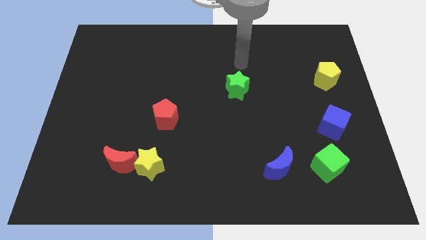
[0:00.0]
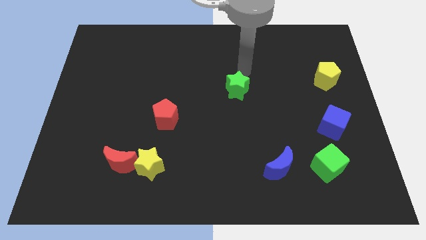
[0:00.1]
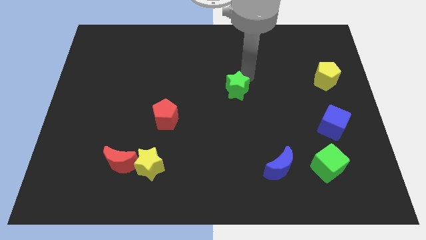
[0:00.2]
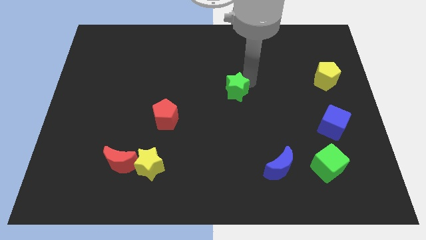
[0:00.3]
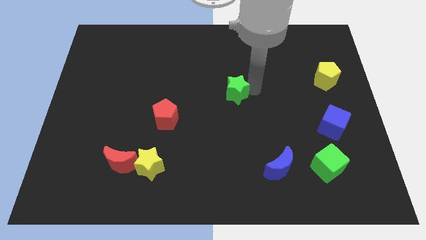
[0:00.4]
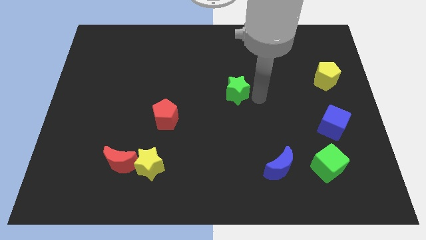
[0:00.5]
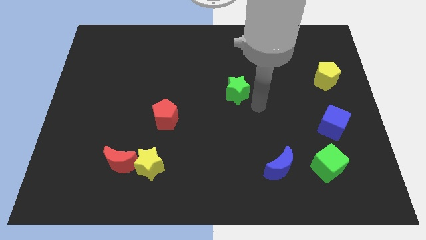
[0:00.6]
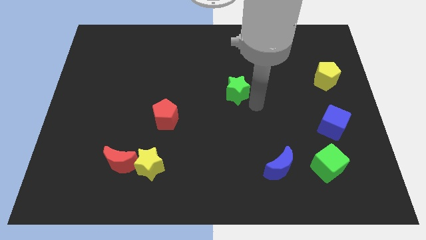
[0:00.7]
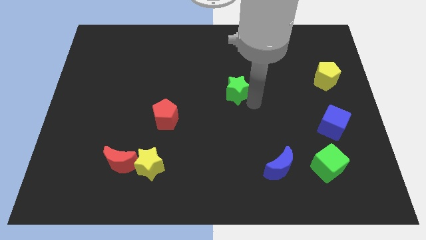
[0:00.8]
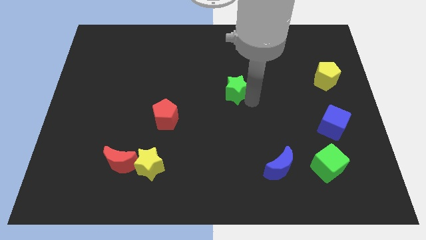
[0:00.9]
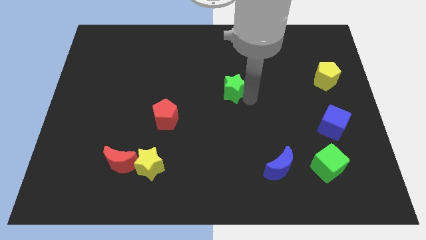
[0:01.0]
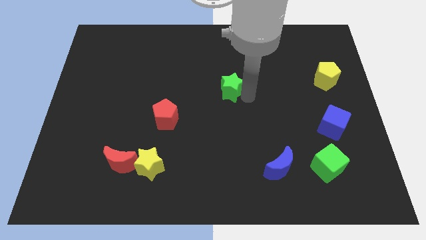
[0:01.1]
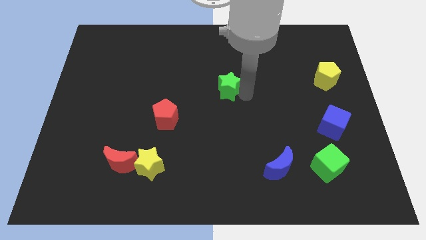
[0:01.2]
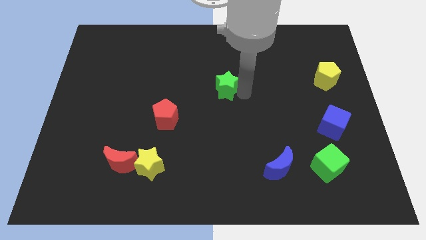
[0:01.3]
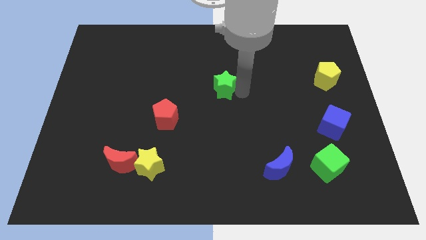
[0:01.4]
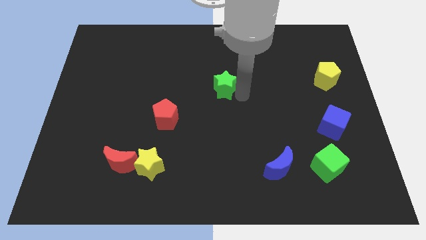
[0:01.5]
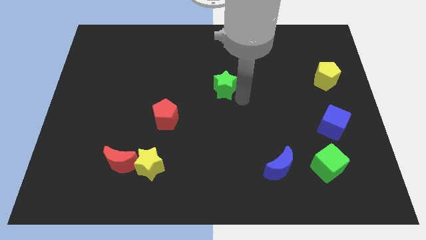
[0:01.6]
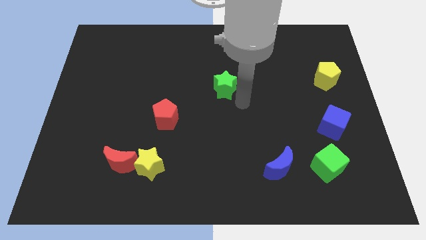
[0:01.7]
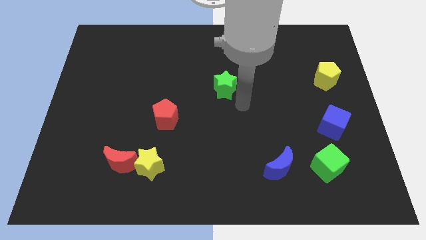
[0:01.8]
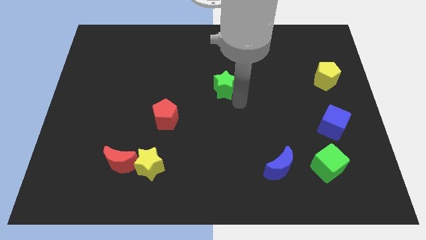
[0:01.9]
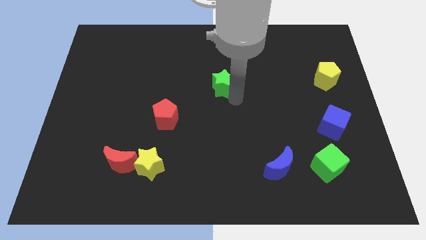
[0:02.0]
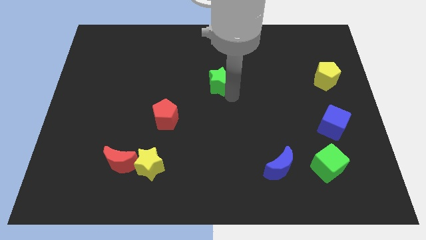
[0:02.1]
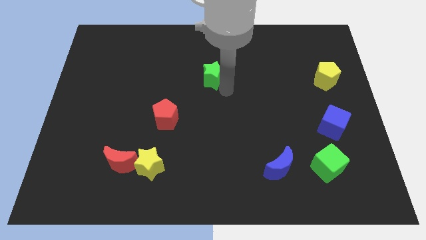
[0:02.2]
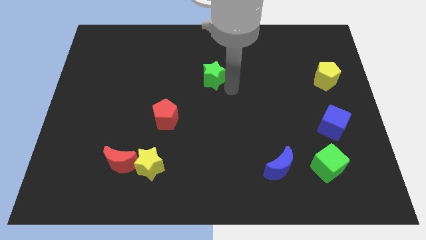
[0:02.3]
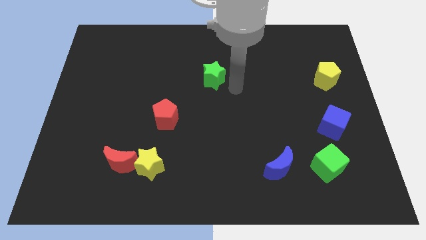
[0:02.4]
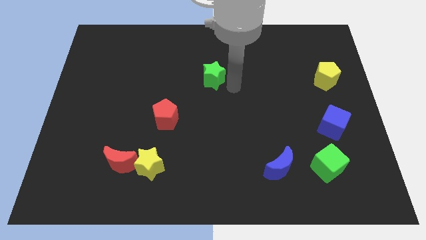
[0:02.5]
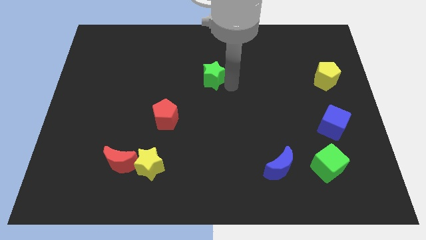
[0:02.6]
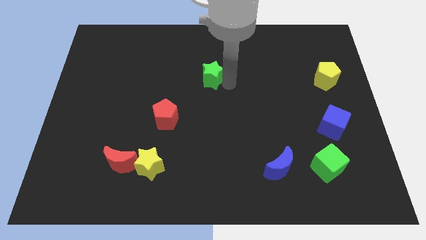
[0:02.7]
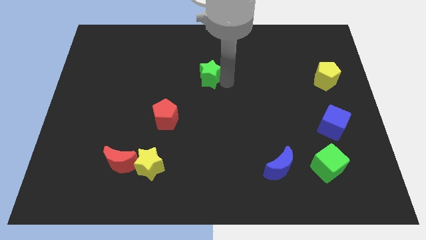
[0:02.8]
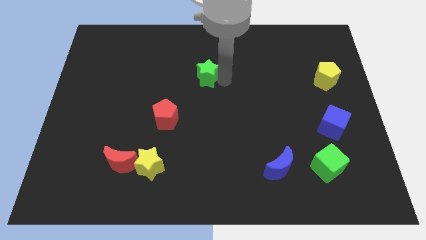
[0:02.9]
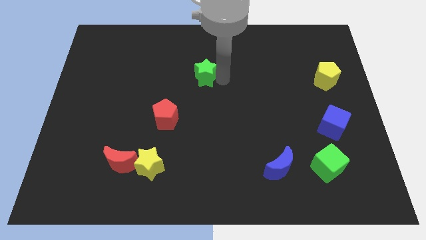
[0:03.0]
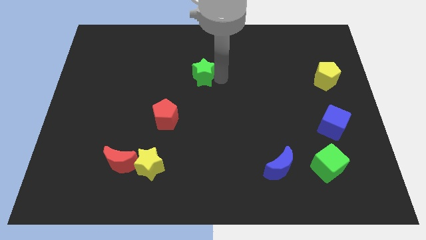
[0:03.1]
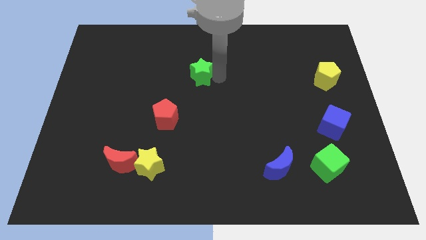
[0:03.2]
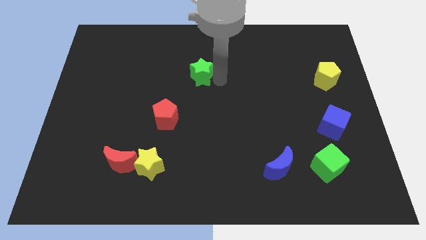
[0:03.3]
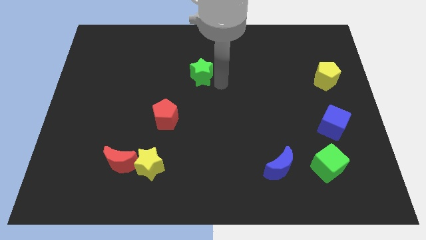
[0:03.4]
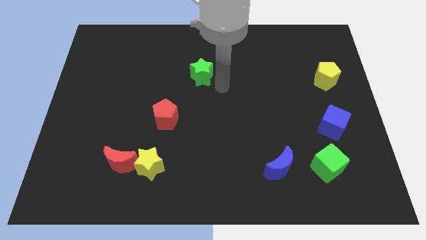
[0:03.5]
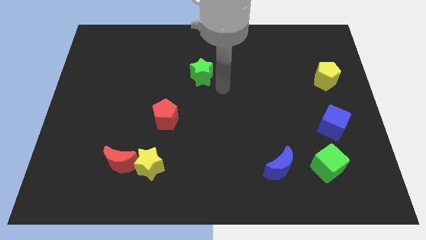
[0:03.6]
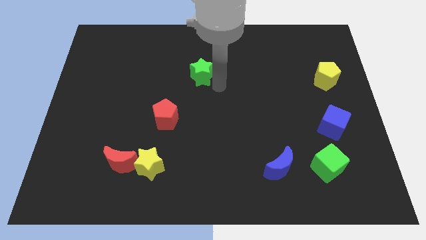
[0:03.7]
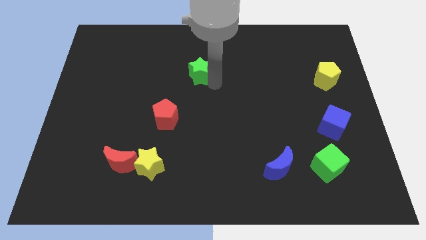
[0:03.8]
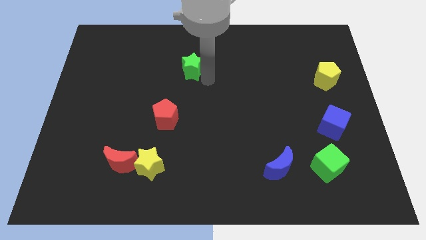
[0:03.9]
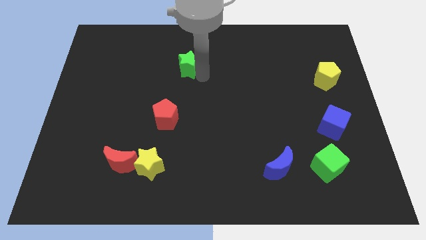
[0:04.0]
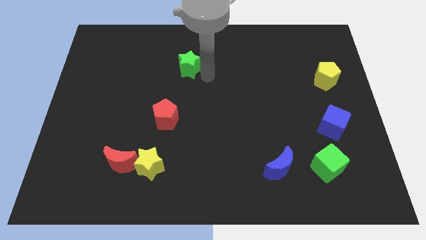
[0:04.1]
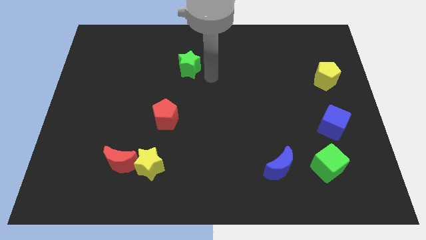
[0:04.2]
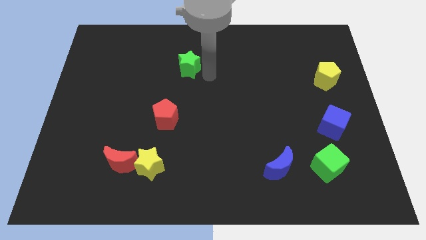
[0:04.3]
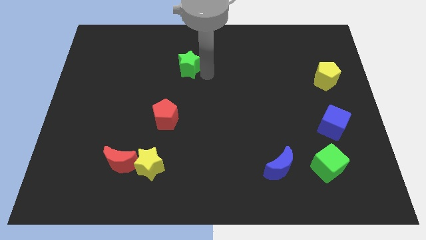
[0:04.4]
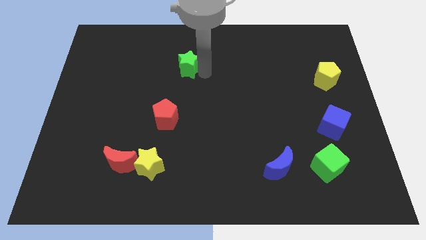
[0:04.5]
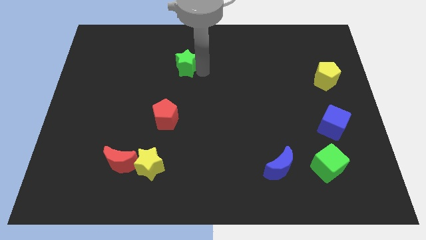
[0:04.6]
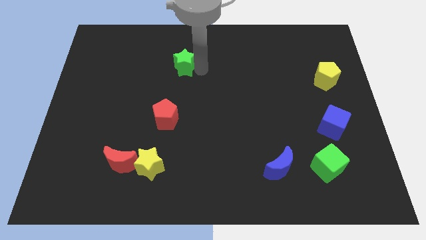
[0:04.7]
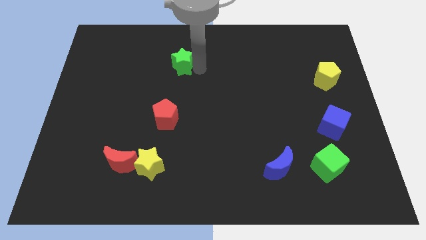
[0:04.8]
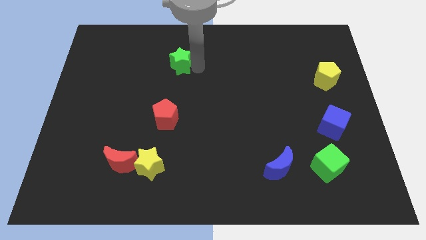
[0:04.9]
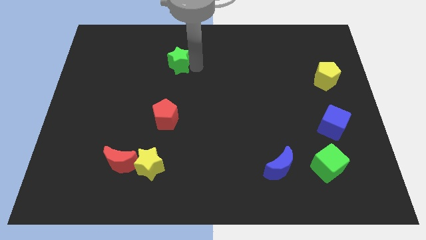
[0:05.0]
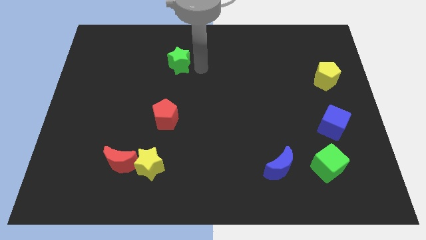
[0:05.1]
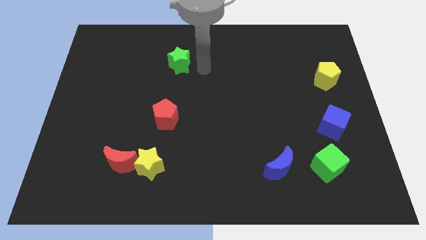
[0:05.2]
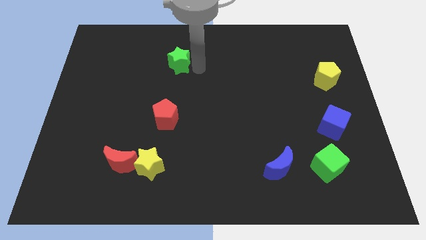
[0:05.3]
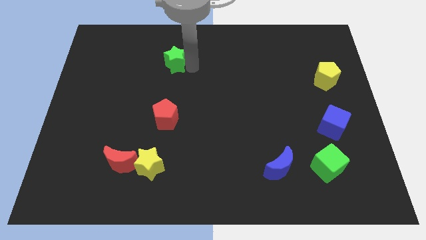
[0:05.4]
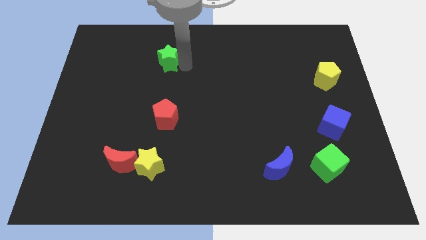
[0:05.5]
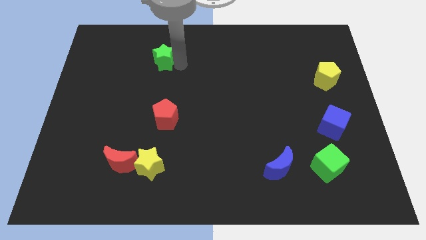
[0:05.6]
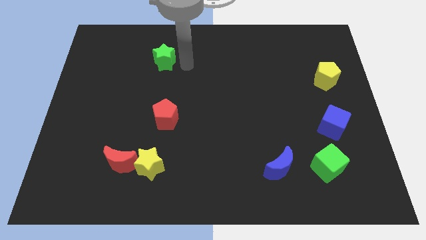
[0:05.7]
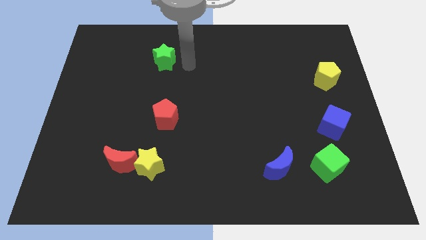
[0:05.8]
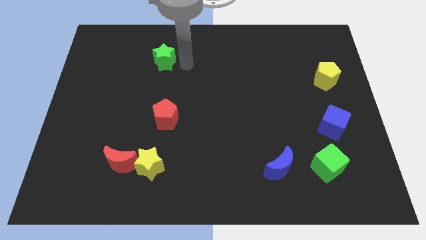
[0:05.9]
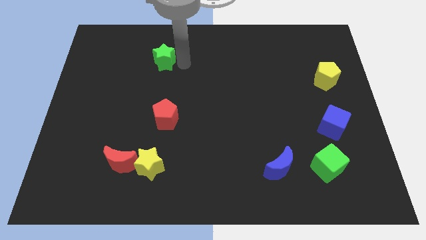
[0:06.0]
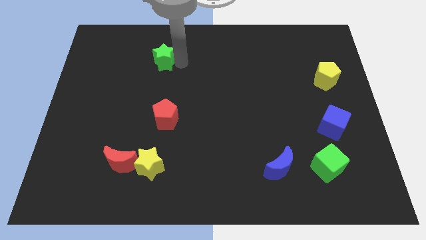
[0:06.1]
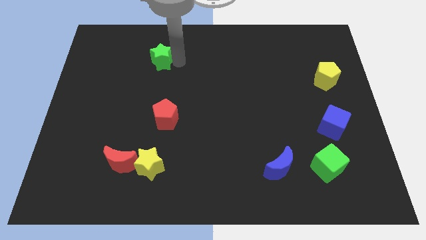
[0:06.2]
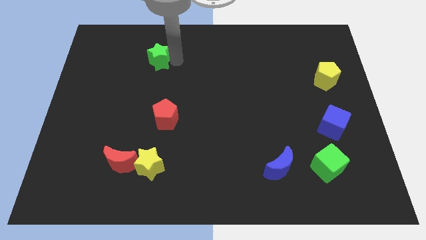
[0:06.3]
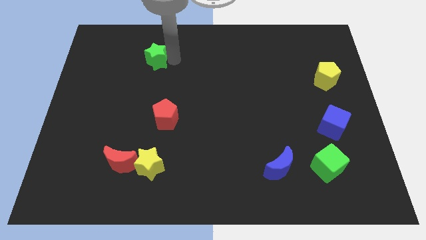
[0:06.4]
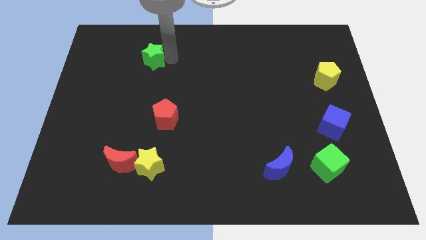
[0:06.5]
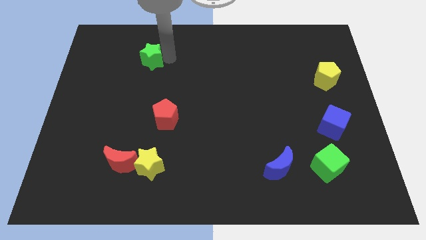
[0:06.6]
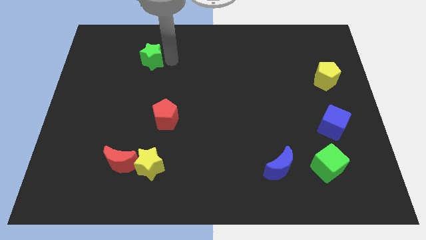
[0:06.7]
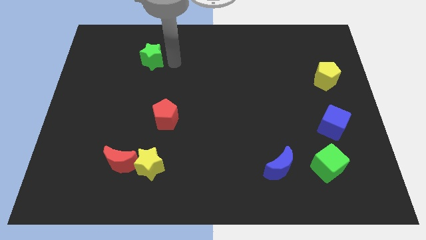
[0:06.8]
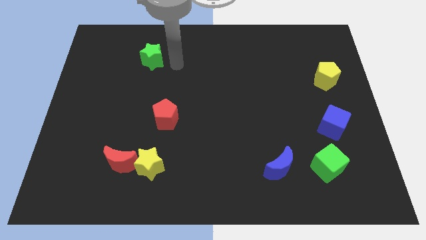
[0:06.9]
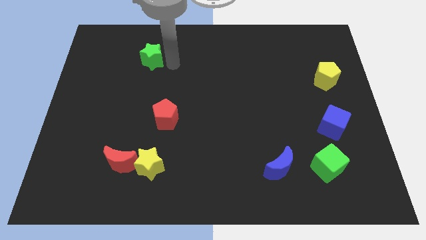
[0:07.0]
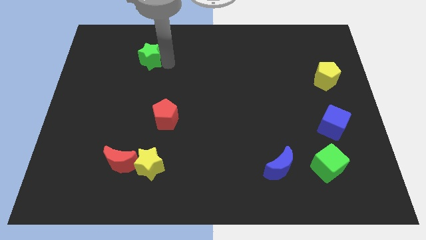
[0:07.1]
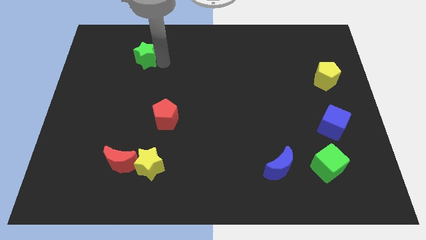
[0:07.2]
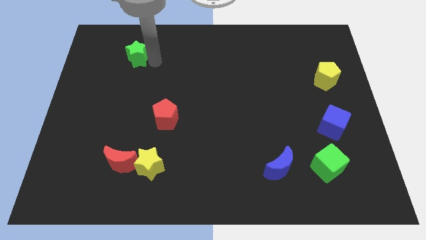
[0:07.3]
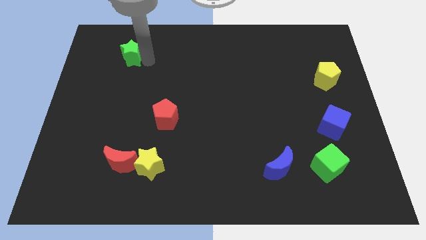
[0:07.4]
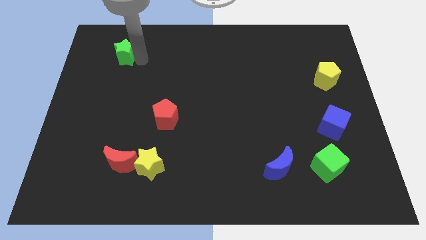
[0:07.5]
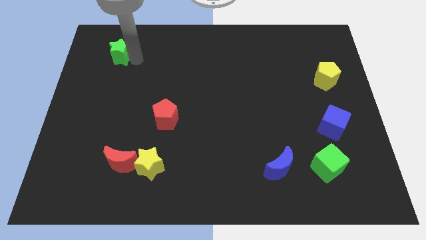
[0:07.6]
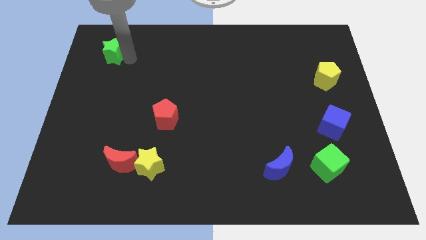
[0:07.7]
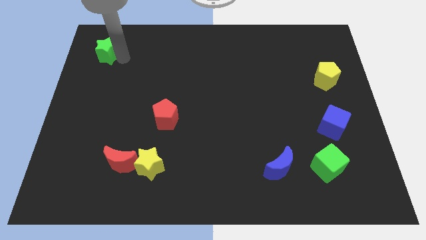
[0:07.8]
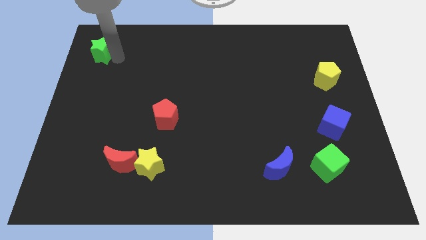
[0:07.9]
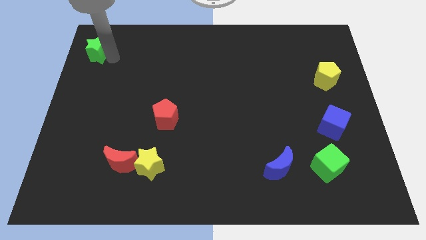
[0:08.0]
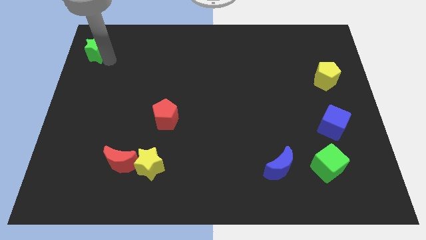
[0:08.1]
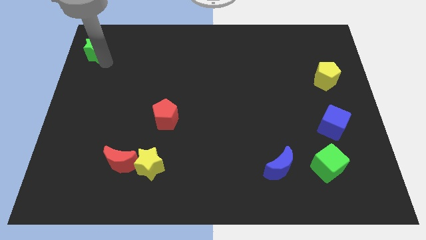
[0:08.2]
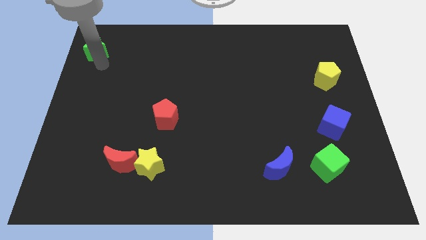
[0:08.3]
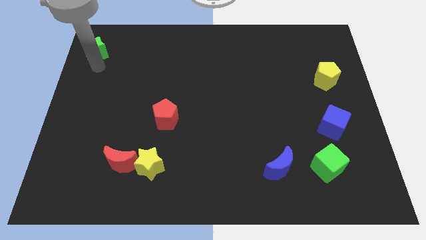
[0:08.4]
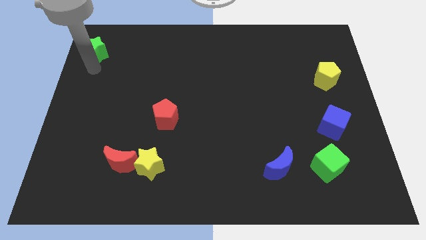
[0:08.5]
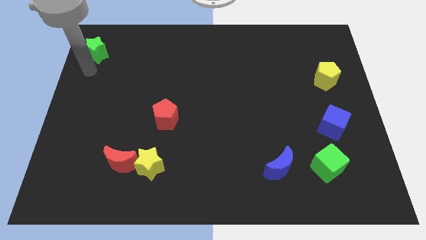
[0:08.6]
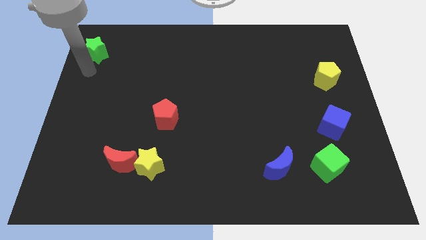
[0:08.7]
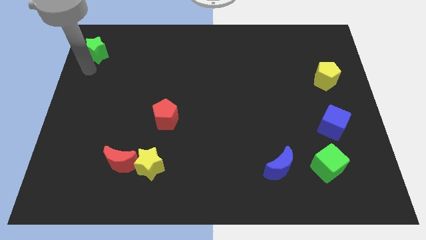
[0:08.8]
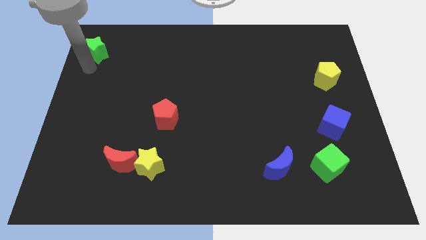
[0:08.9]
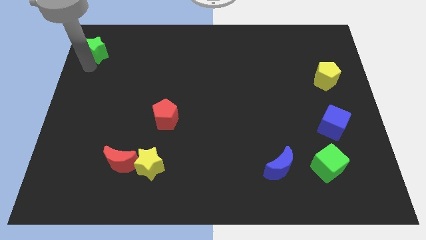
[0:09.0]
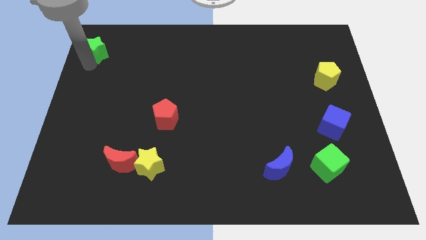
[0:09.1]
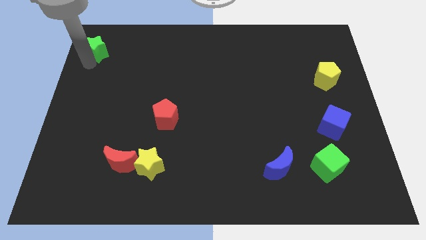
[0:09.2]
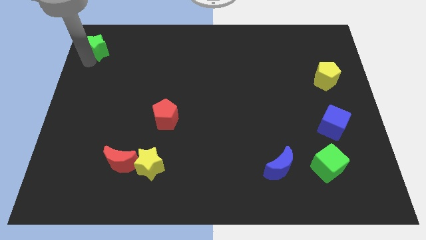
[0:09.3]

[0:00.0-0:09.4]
push the green star to the top left
